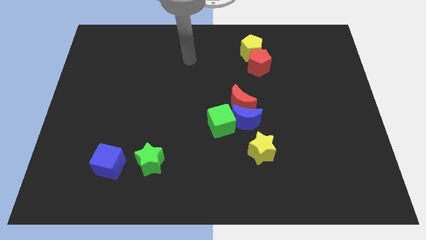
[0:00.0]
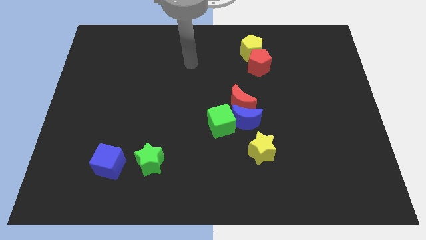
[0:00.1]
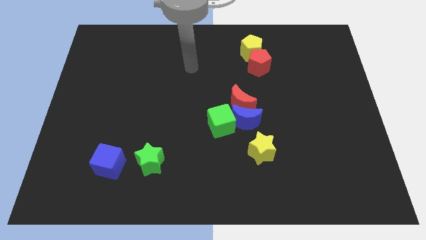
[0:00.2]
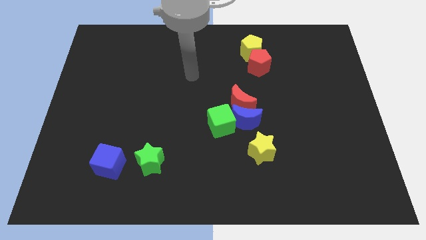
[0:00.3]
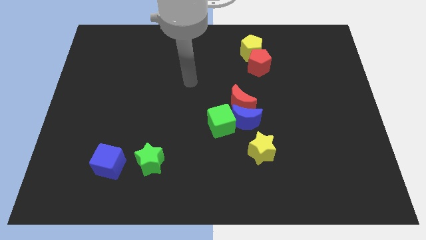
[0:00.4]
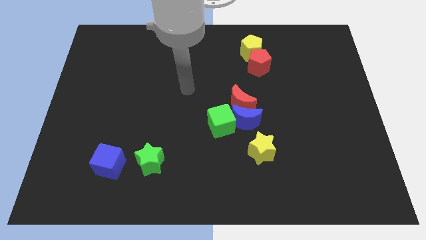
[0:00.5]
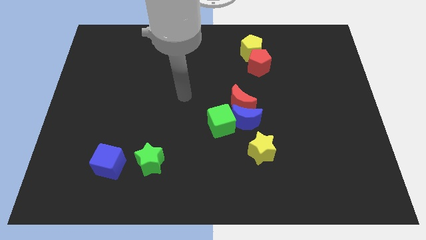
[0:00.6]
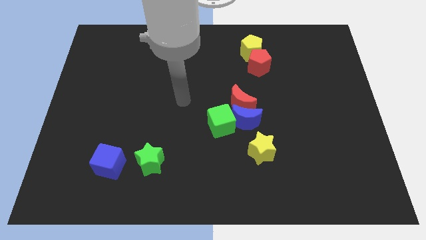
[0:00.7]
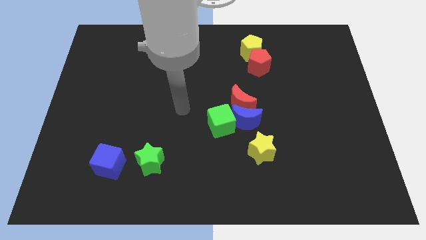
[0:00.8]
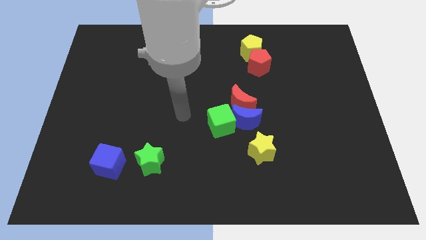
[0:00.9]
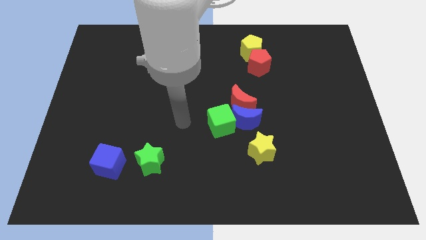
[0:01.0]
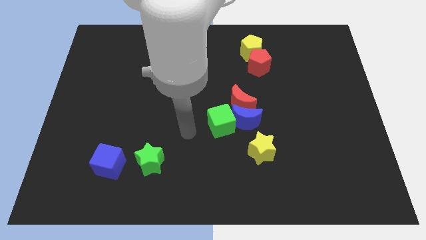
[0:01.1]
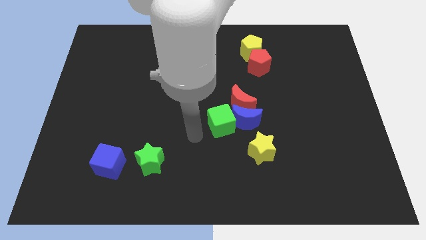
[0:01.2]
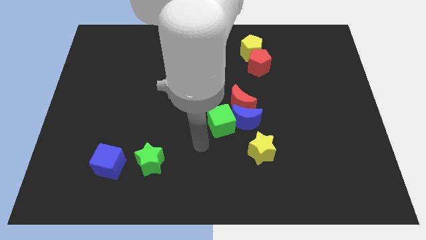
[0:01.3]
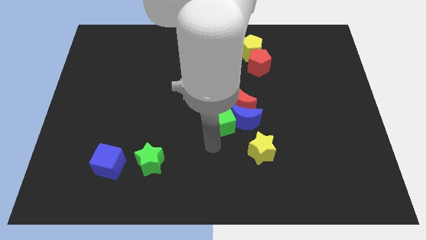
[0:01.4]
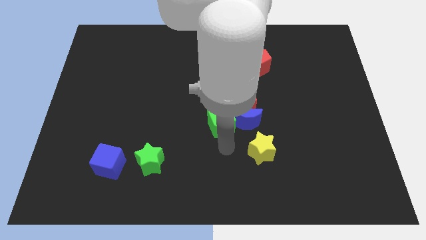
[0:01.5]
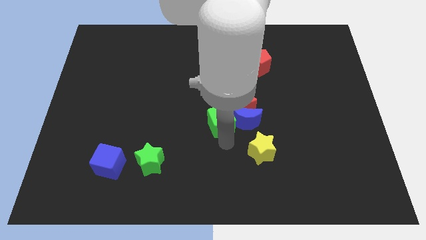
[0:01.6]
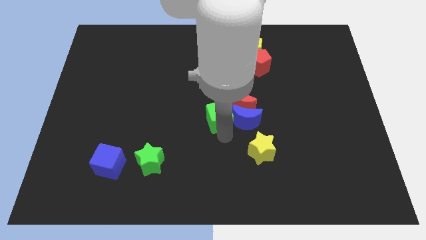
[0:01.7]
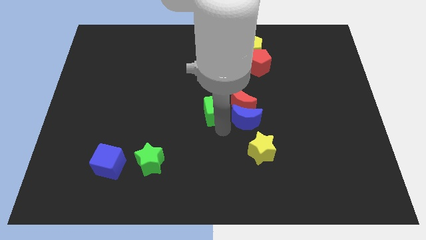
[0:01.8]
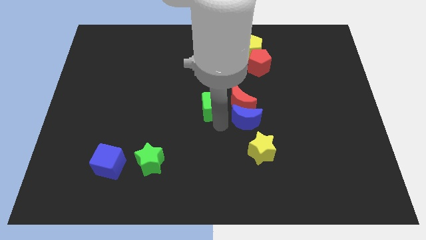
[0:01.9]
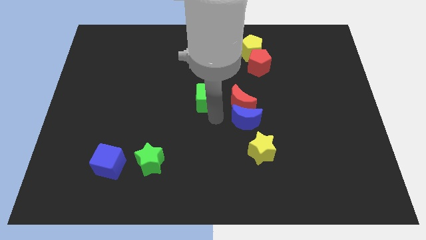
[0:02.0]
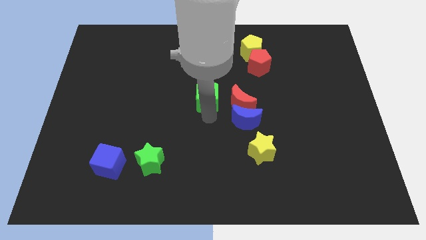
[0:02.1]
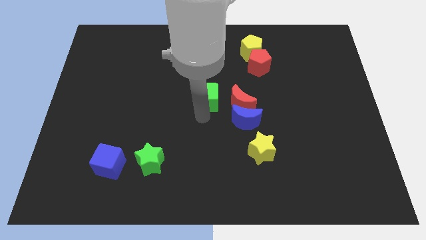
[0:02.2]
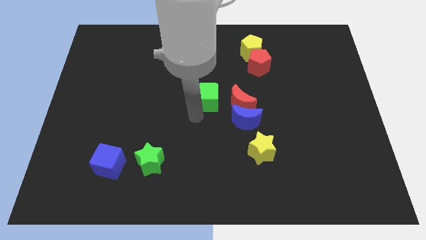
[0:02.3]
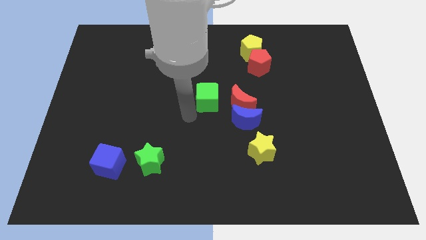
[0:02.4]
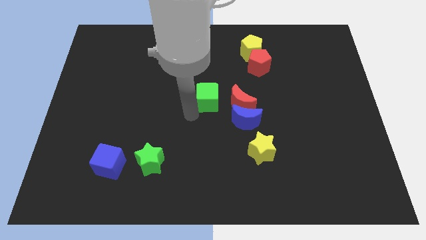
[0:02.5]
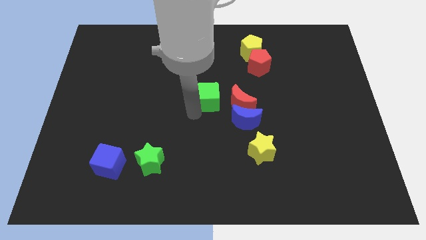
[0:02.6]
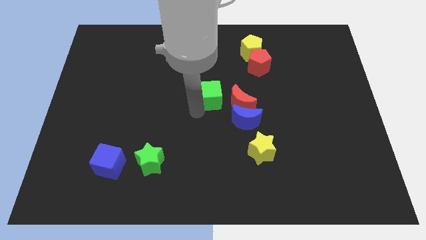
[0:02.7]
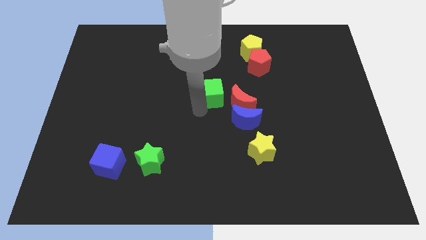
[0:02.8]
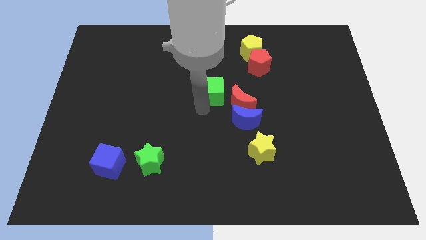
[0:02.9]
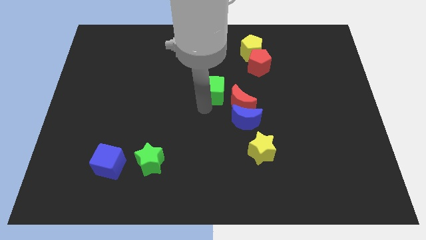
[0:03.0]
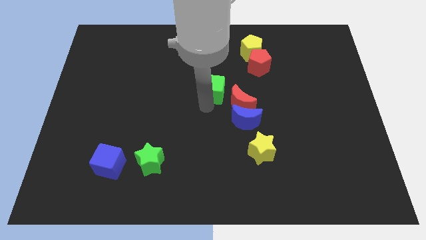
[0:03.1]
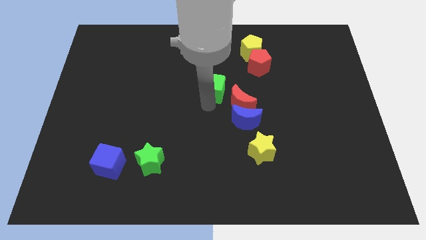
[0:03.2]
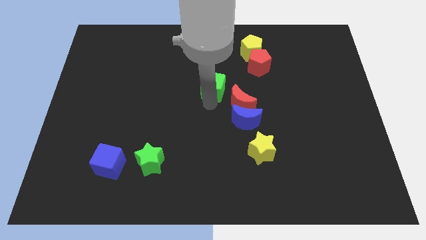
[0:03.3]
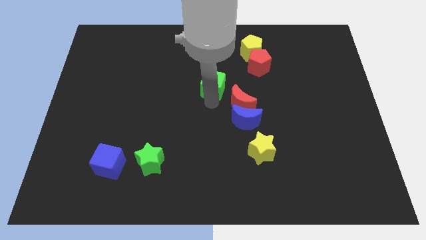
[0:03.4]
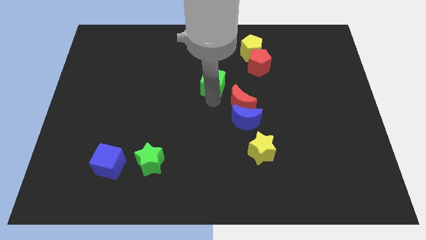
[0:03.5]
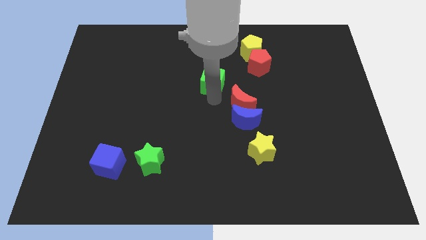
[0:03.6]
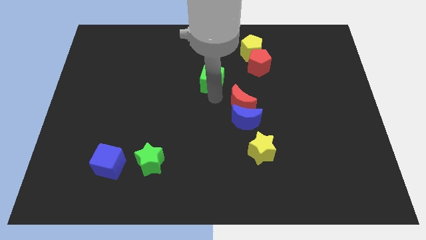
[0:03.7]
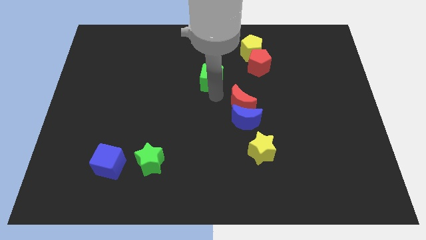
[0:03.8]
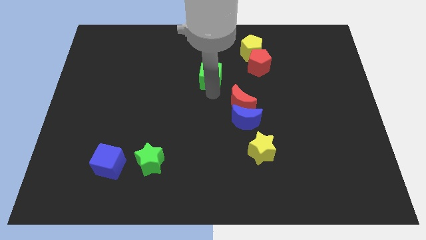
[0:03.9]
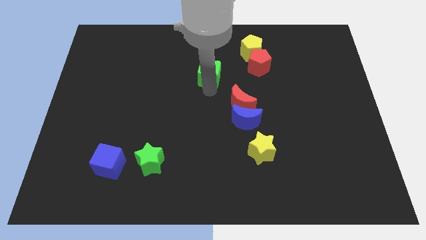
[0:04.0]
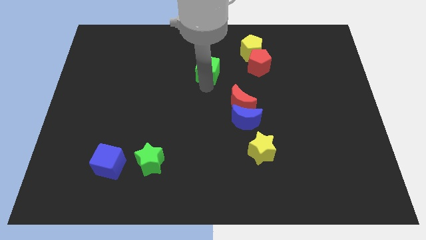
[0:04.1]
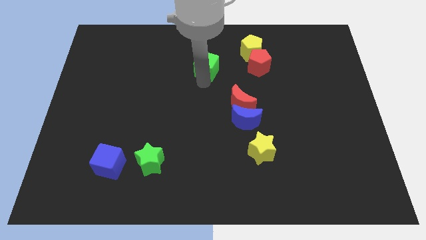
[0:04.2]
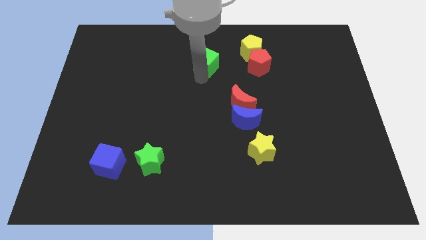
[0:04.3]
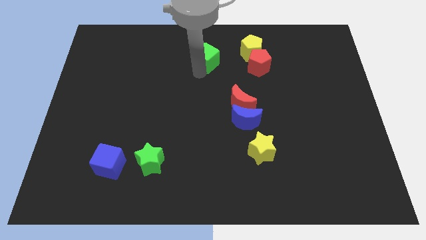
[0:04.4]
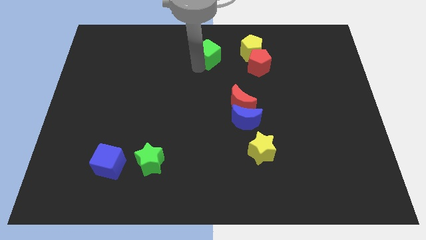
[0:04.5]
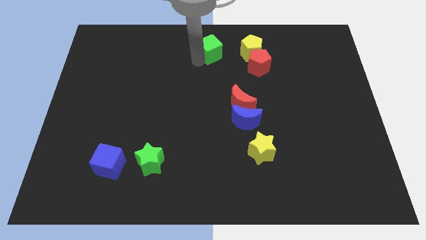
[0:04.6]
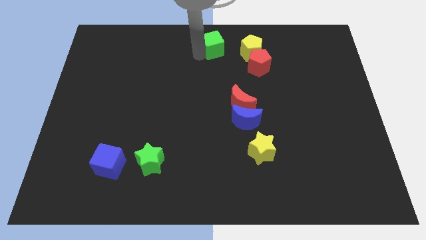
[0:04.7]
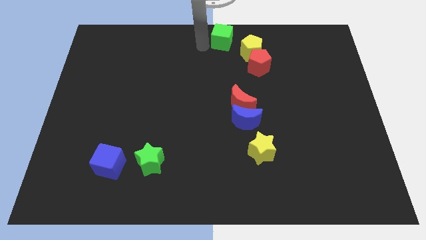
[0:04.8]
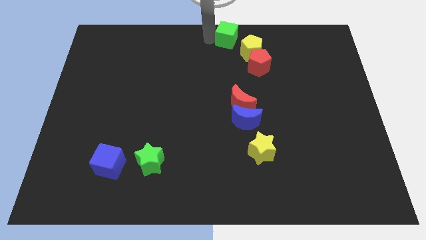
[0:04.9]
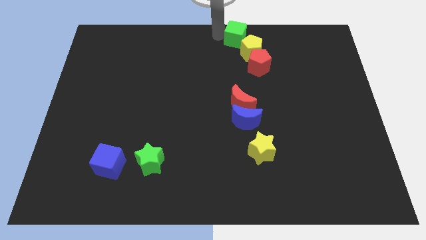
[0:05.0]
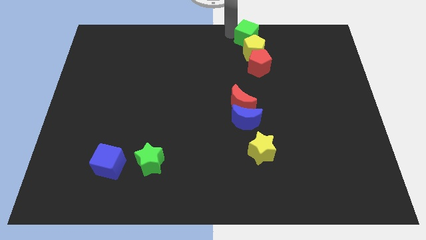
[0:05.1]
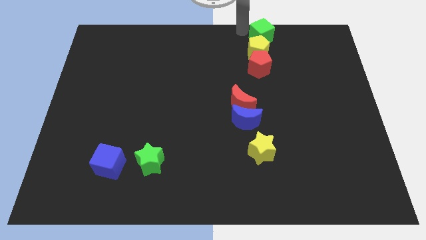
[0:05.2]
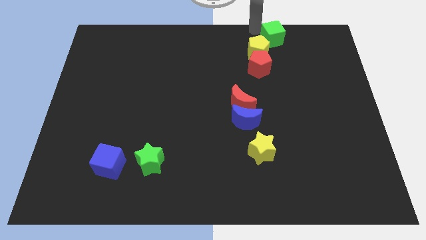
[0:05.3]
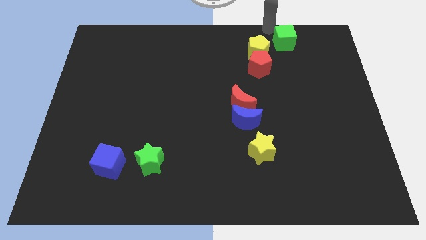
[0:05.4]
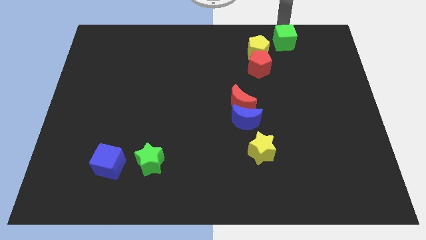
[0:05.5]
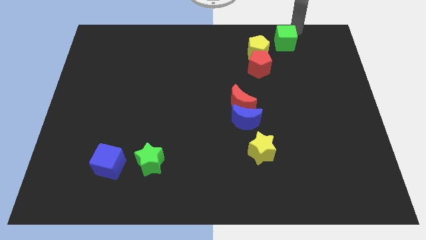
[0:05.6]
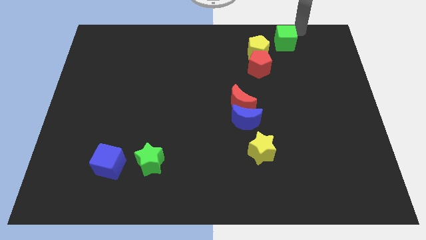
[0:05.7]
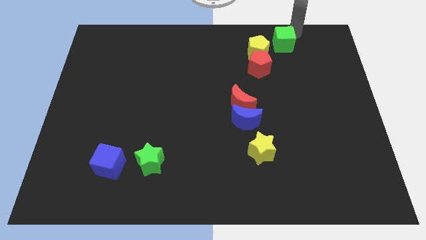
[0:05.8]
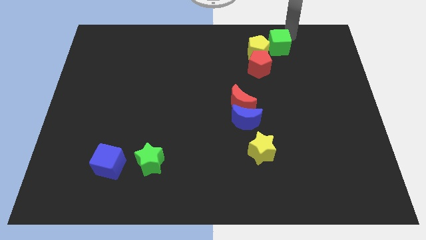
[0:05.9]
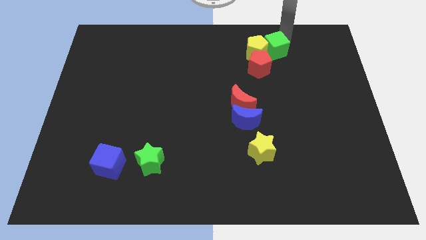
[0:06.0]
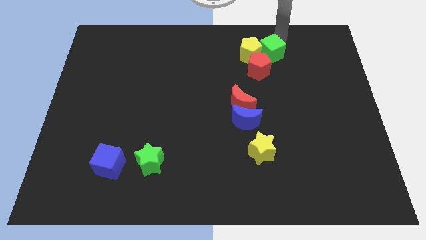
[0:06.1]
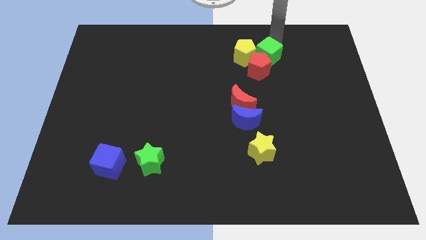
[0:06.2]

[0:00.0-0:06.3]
move the green cube to the red pentagon
